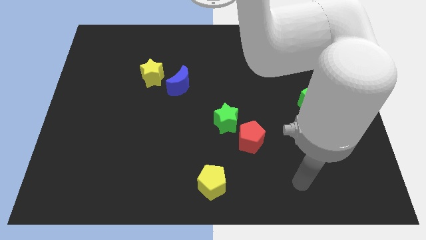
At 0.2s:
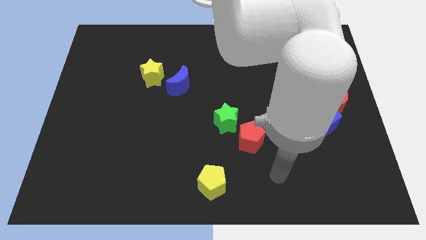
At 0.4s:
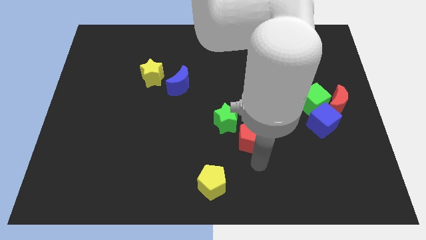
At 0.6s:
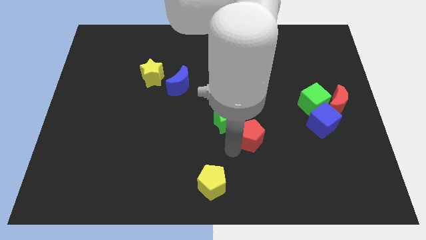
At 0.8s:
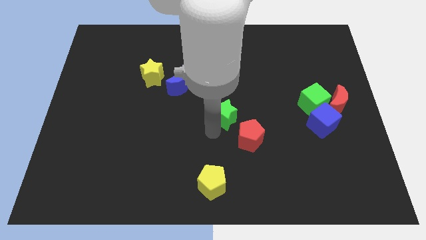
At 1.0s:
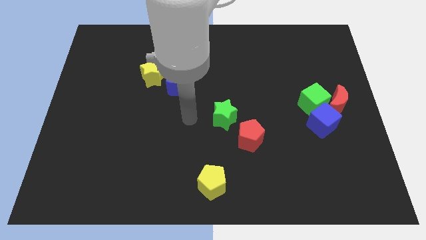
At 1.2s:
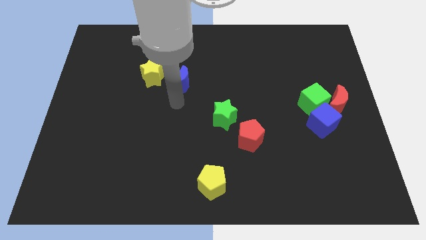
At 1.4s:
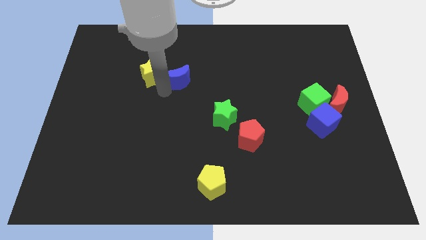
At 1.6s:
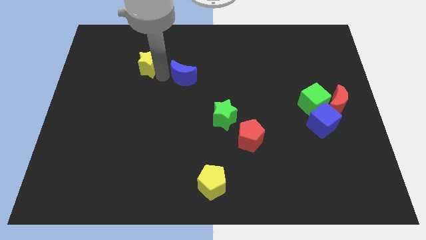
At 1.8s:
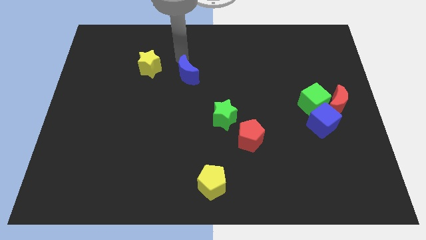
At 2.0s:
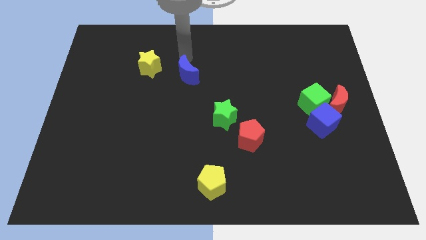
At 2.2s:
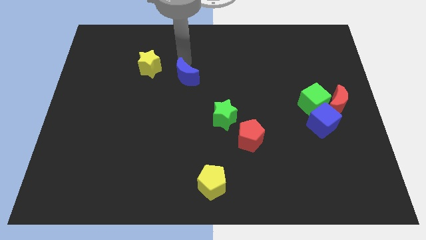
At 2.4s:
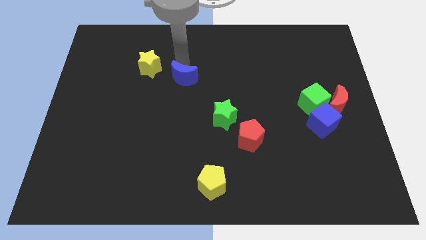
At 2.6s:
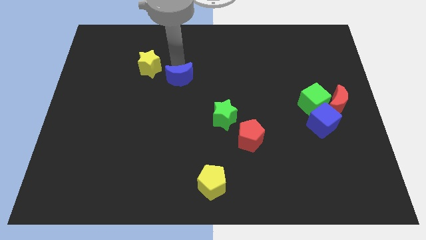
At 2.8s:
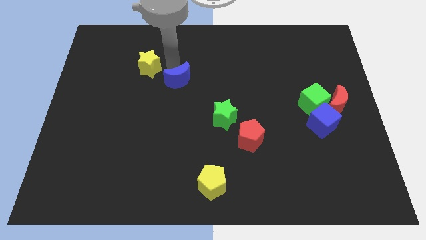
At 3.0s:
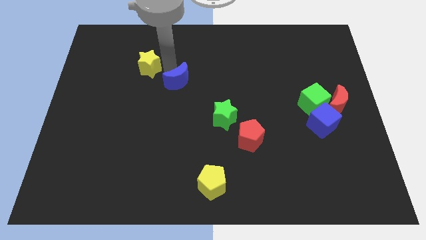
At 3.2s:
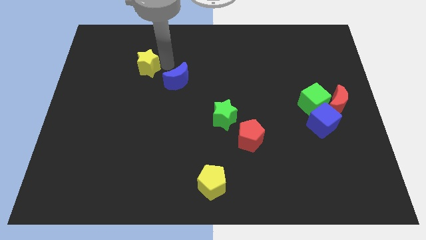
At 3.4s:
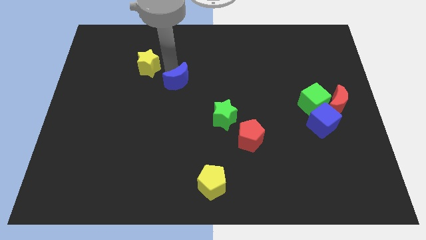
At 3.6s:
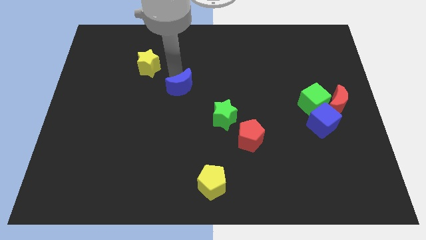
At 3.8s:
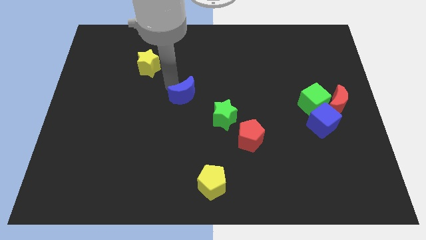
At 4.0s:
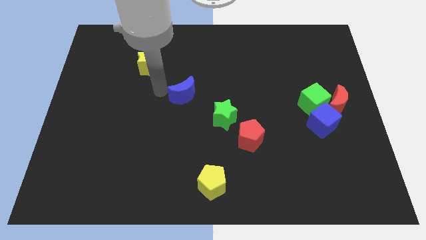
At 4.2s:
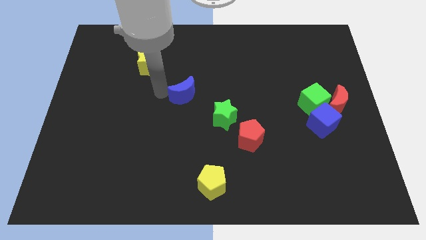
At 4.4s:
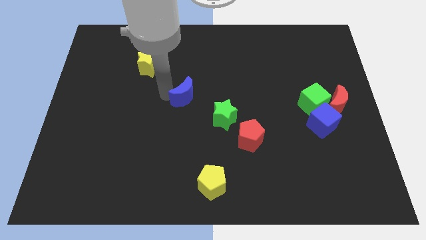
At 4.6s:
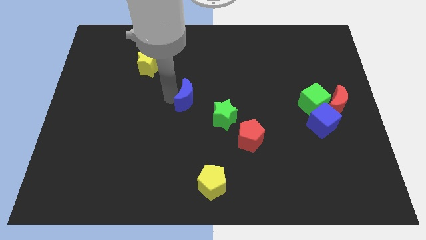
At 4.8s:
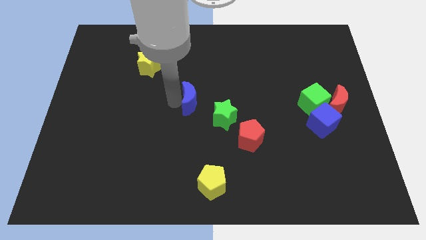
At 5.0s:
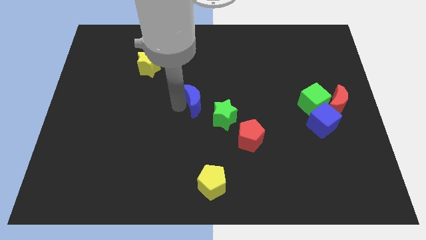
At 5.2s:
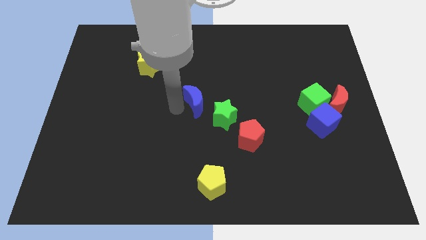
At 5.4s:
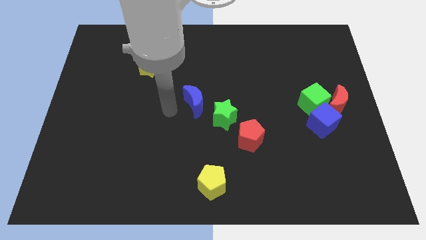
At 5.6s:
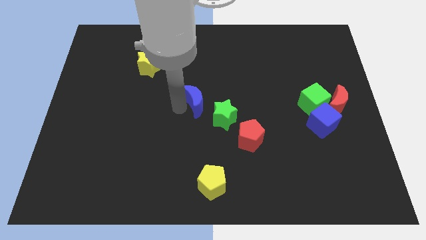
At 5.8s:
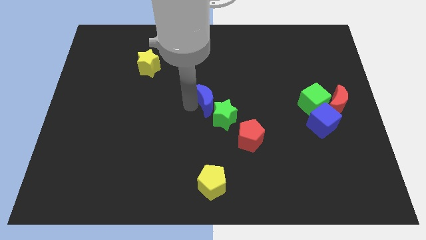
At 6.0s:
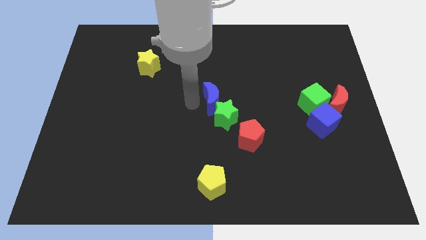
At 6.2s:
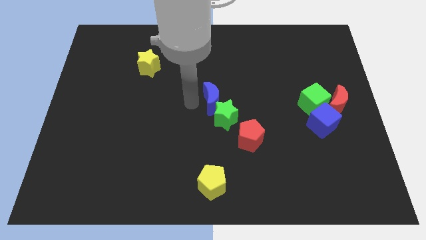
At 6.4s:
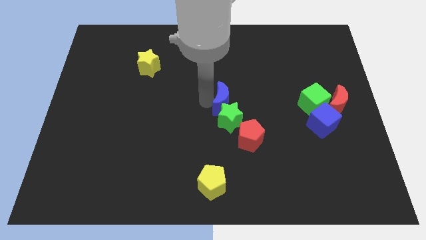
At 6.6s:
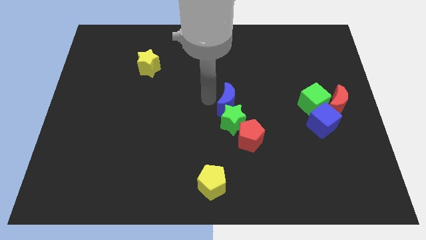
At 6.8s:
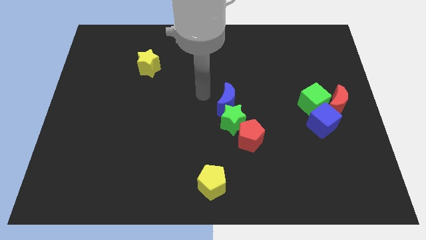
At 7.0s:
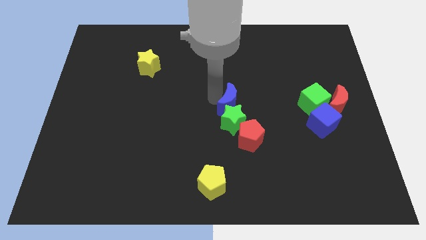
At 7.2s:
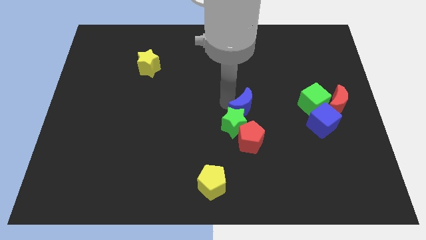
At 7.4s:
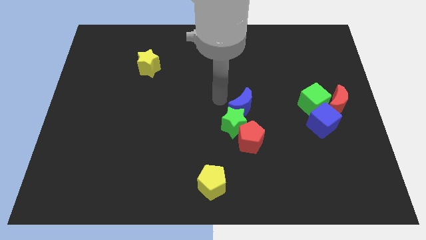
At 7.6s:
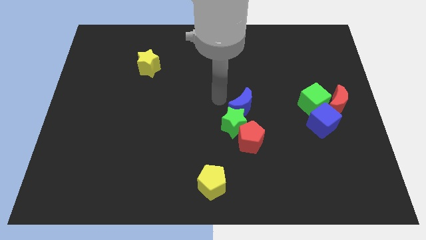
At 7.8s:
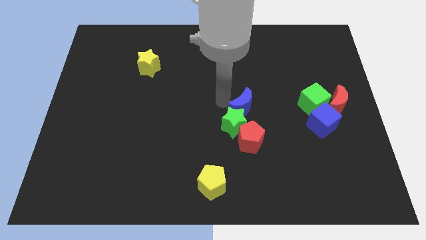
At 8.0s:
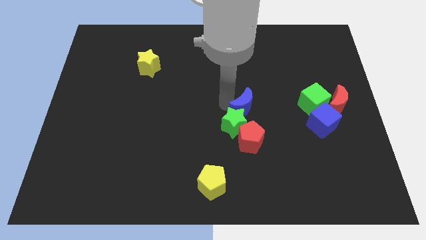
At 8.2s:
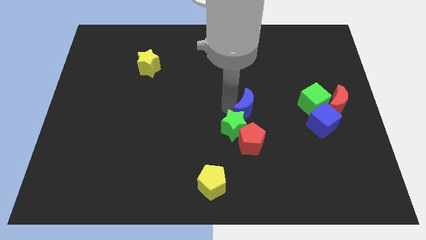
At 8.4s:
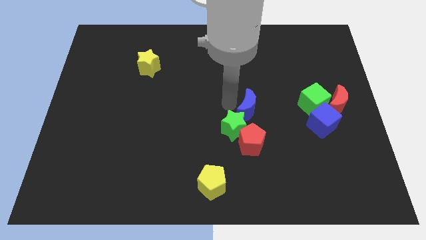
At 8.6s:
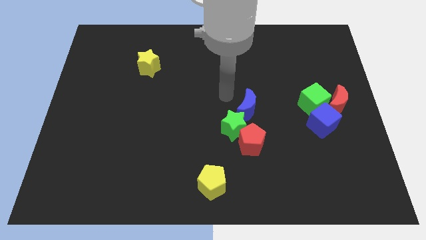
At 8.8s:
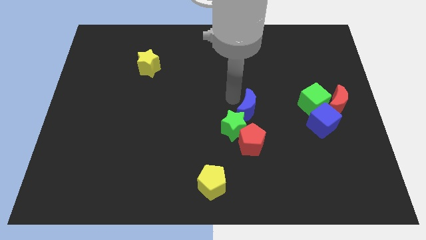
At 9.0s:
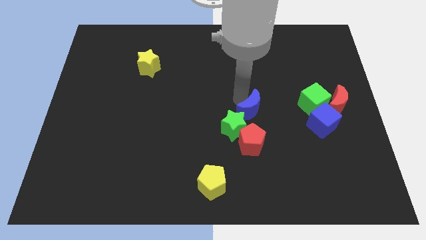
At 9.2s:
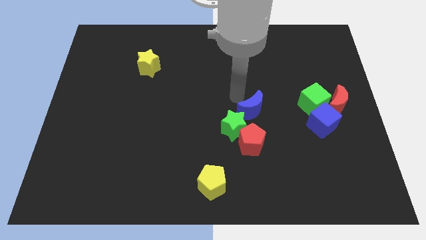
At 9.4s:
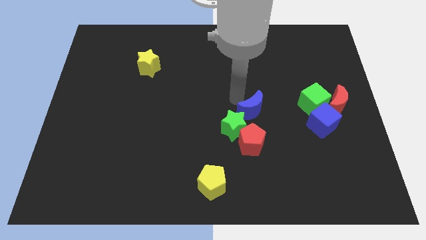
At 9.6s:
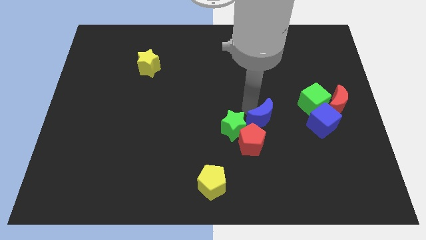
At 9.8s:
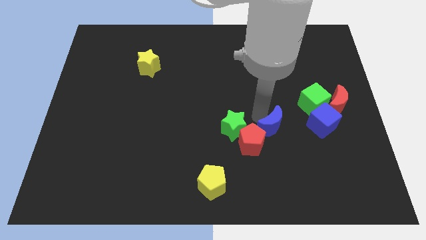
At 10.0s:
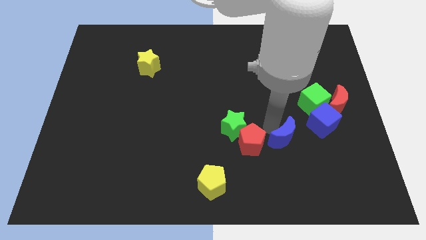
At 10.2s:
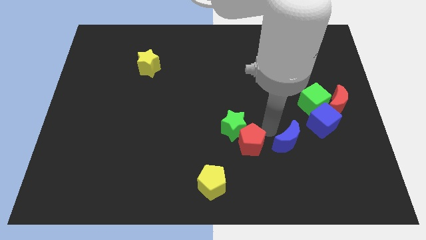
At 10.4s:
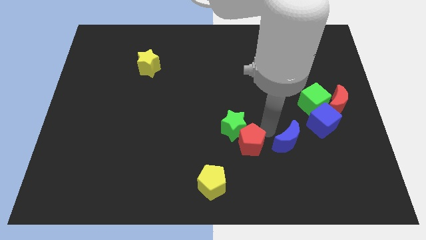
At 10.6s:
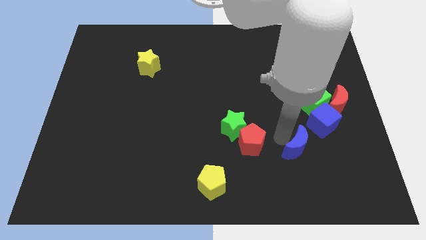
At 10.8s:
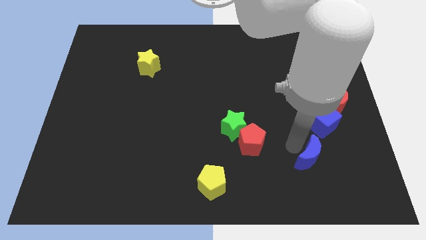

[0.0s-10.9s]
push the blue moon below the blue cube

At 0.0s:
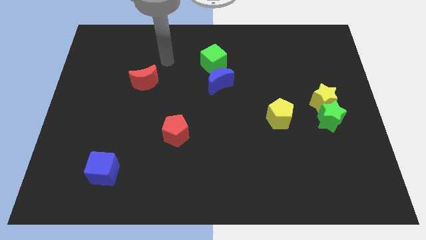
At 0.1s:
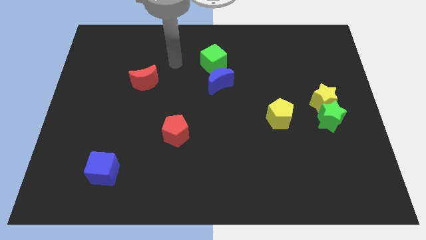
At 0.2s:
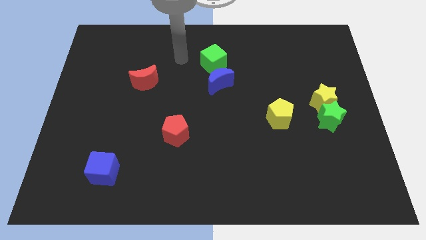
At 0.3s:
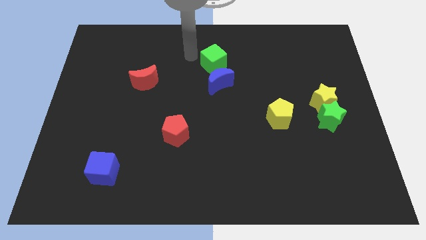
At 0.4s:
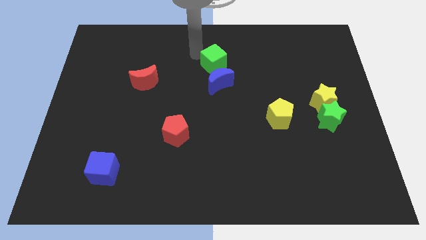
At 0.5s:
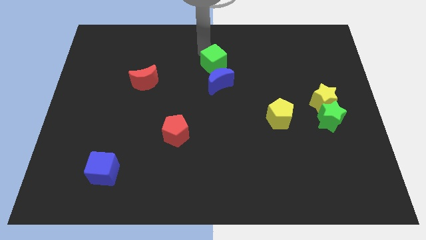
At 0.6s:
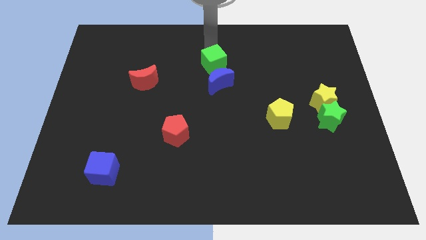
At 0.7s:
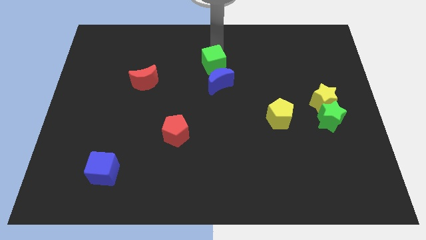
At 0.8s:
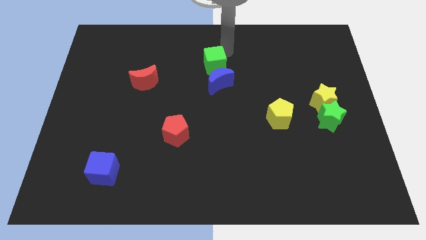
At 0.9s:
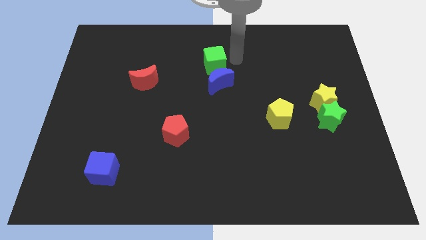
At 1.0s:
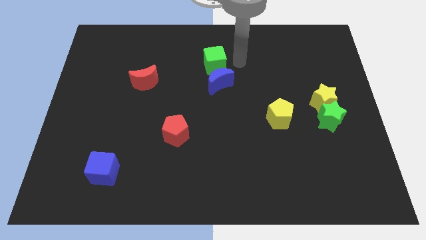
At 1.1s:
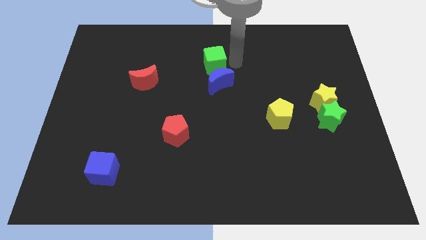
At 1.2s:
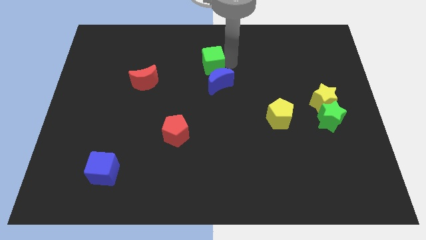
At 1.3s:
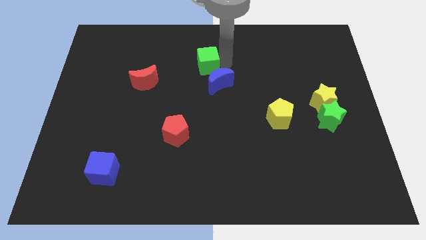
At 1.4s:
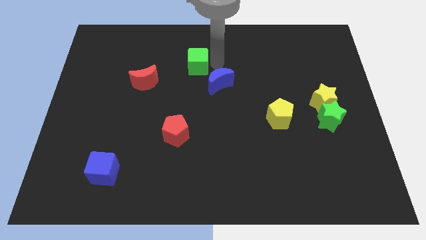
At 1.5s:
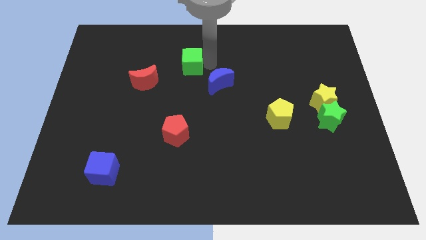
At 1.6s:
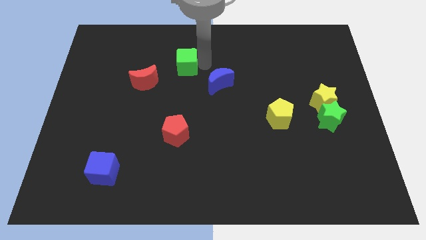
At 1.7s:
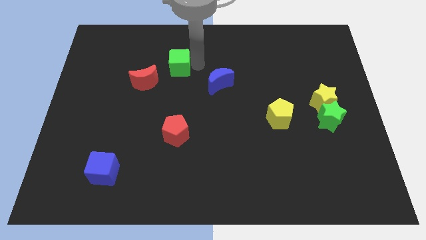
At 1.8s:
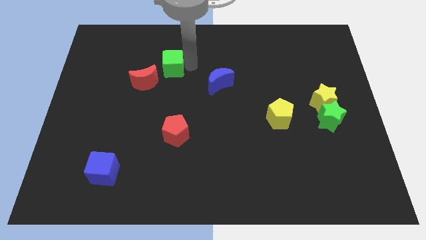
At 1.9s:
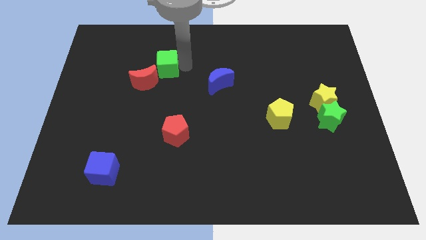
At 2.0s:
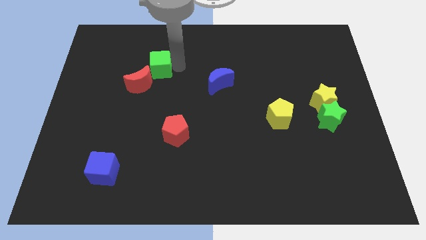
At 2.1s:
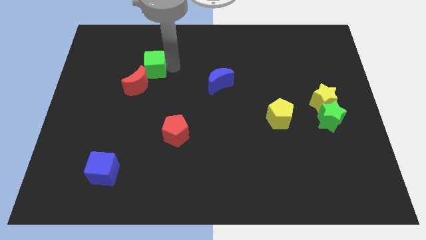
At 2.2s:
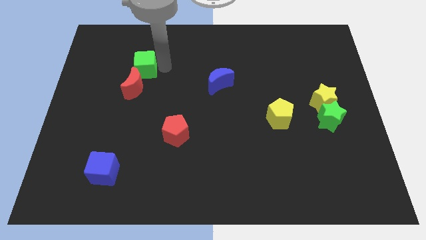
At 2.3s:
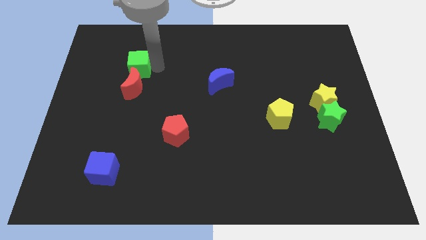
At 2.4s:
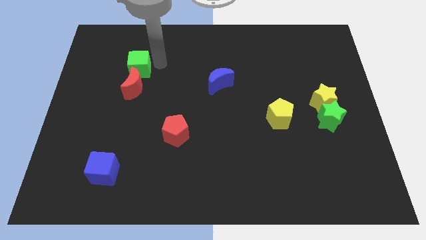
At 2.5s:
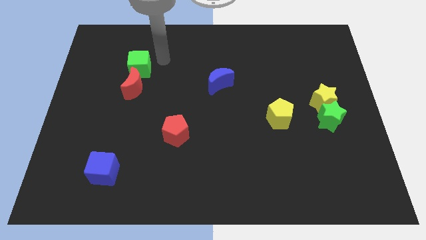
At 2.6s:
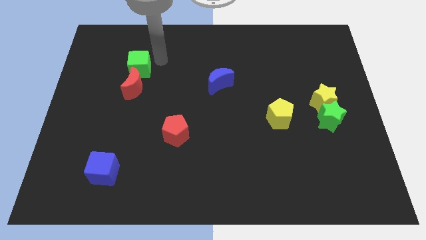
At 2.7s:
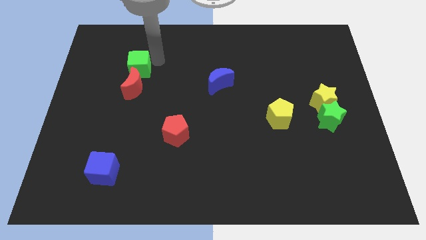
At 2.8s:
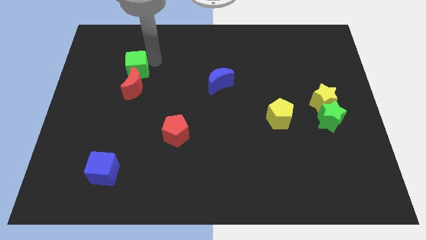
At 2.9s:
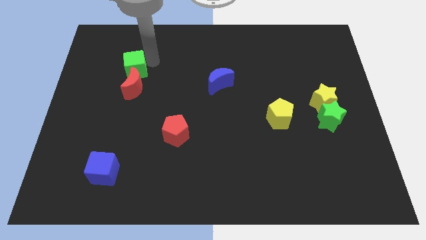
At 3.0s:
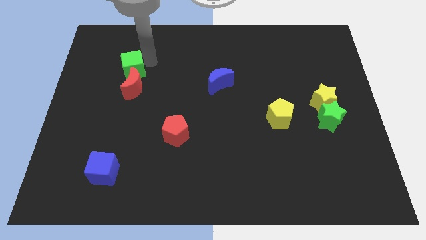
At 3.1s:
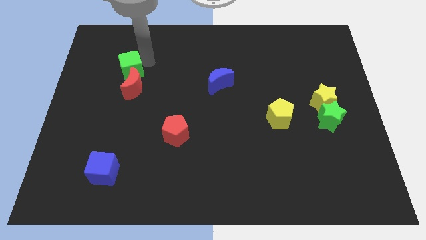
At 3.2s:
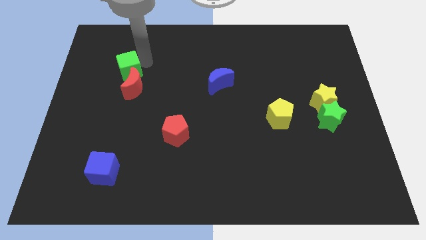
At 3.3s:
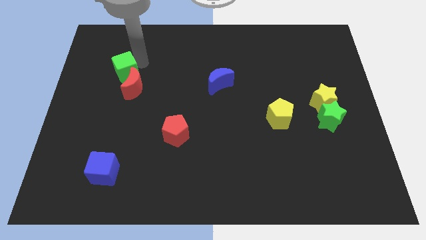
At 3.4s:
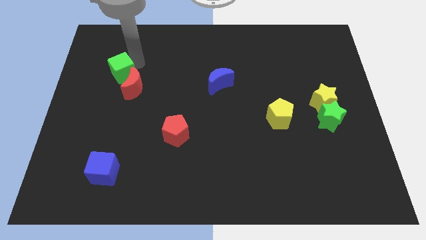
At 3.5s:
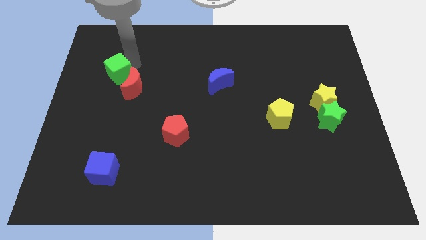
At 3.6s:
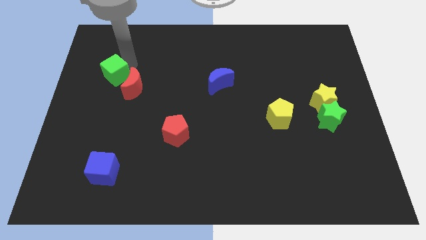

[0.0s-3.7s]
slide the green cube left of the red moon
